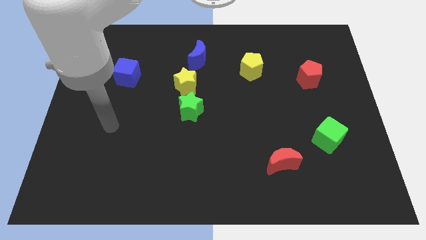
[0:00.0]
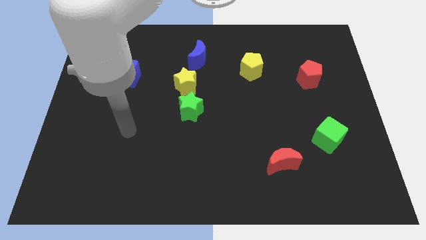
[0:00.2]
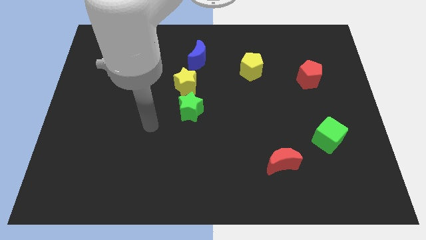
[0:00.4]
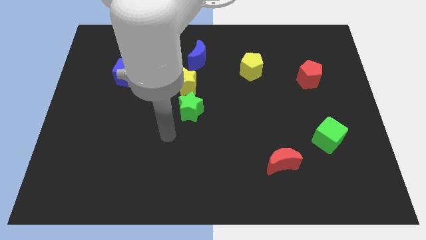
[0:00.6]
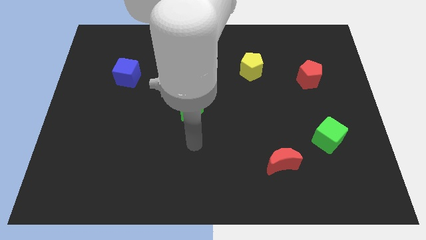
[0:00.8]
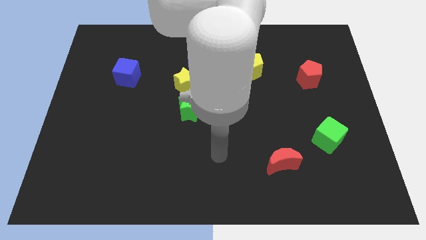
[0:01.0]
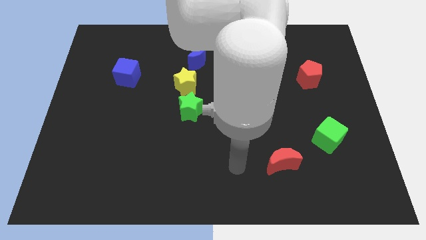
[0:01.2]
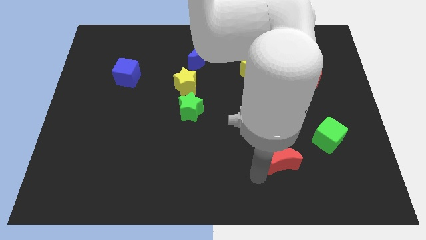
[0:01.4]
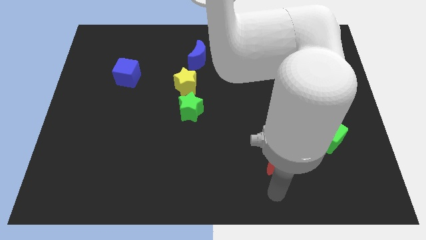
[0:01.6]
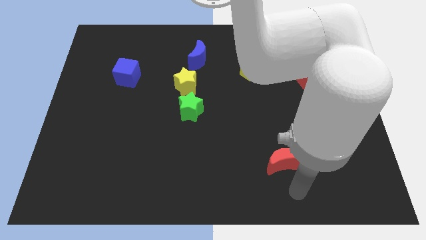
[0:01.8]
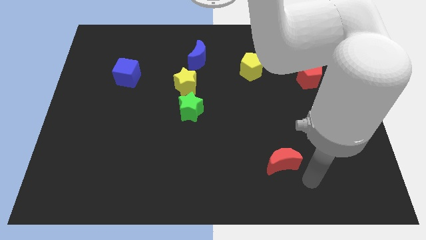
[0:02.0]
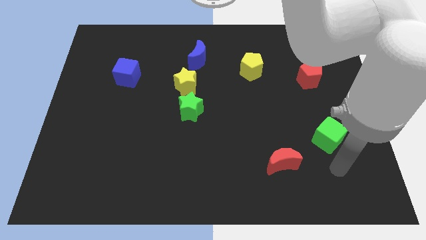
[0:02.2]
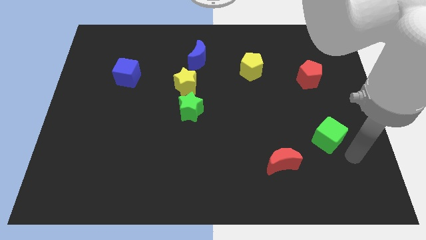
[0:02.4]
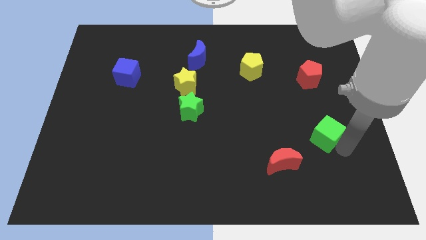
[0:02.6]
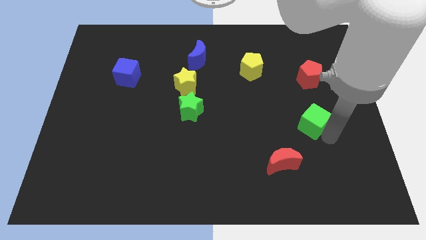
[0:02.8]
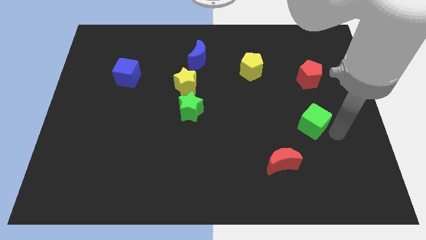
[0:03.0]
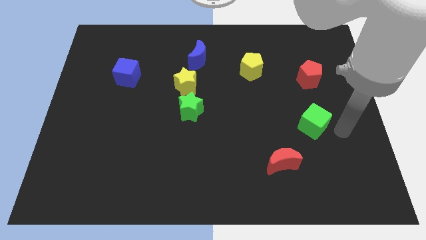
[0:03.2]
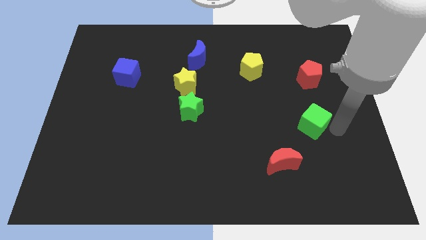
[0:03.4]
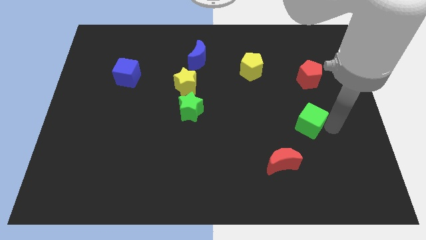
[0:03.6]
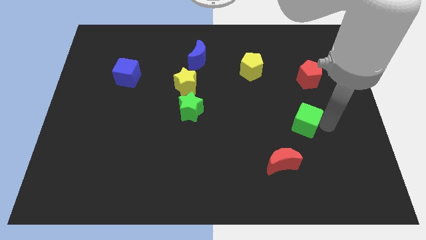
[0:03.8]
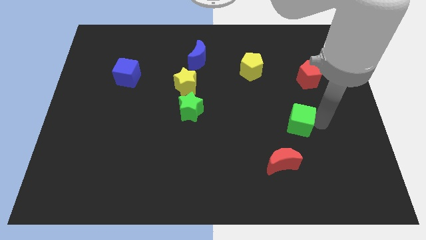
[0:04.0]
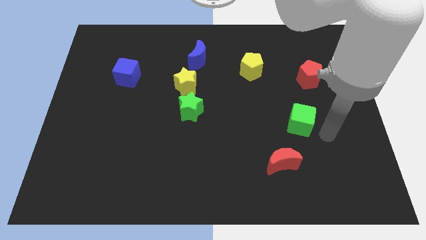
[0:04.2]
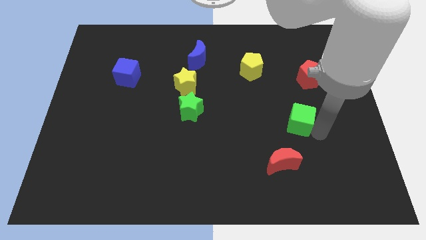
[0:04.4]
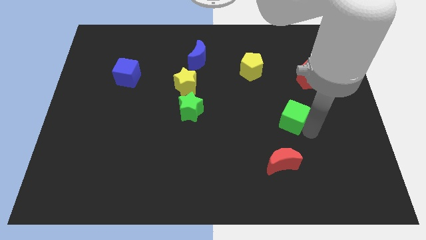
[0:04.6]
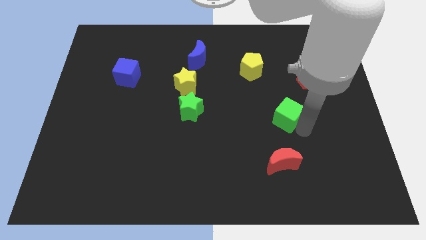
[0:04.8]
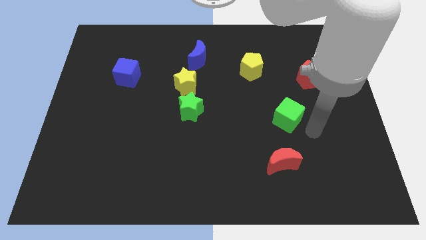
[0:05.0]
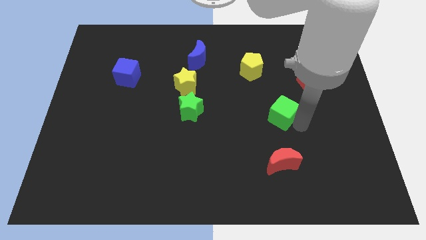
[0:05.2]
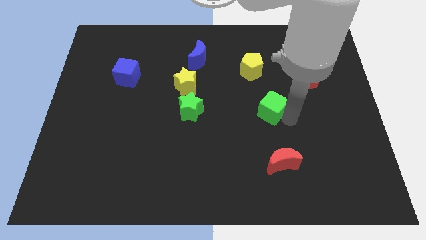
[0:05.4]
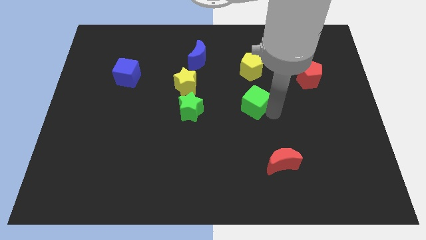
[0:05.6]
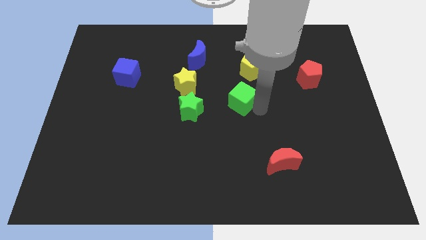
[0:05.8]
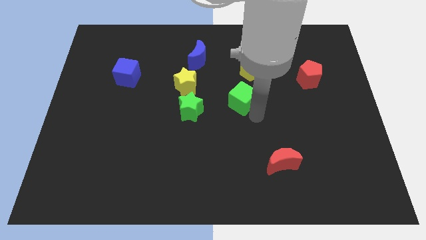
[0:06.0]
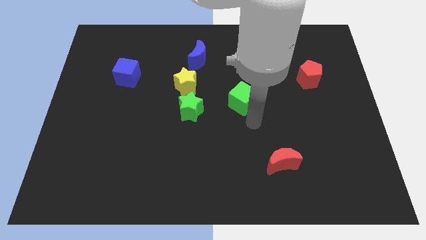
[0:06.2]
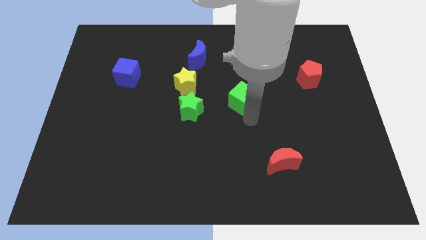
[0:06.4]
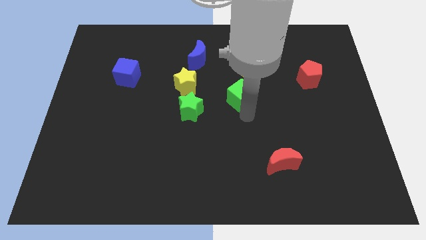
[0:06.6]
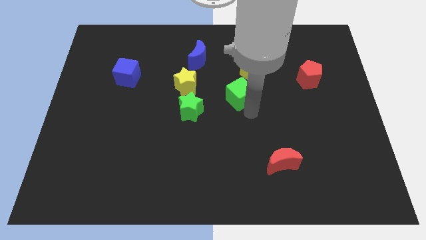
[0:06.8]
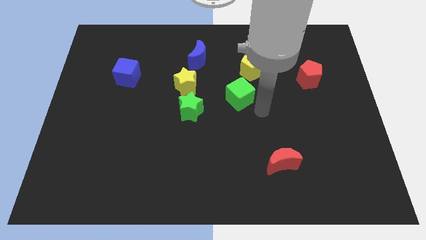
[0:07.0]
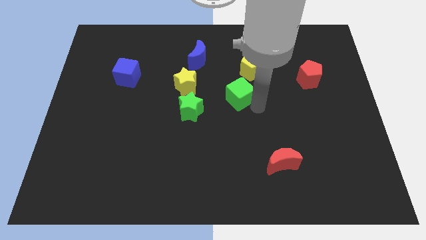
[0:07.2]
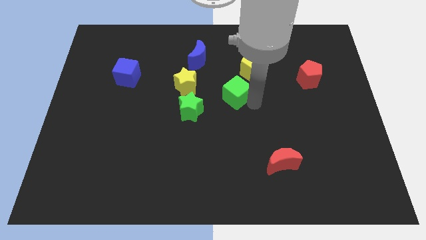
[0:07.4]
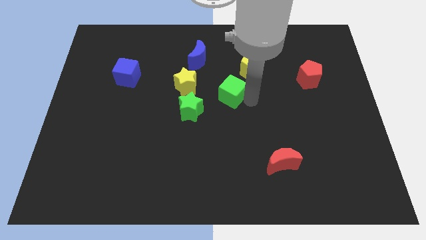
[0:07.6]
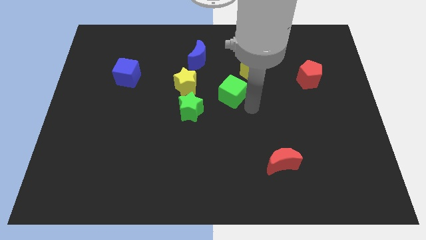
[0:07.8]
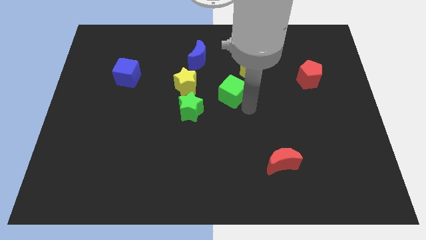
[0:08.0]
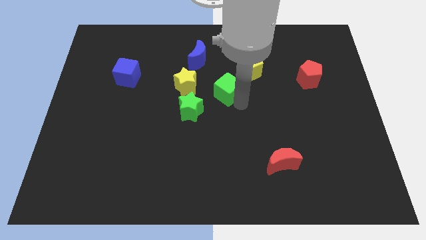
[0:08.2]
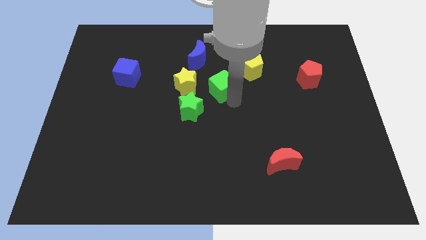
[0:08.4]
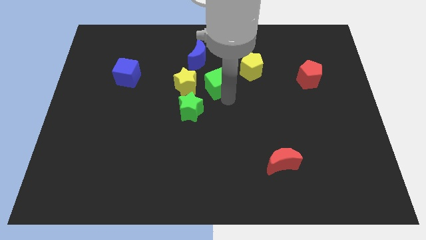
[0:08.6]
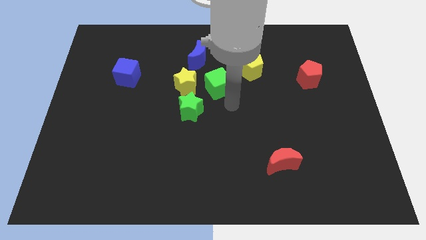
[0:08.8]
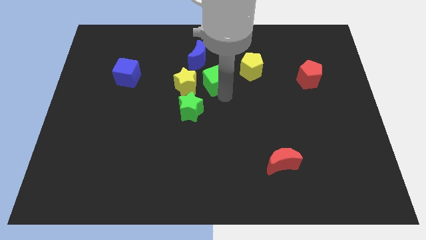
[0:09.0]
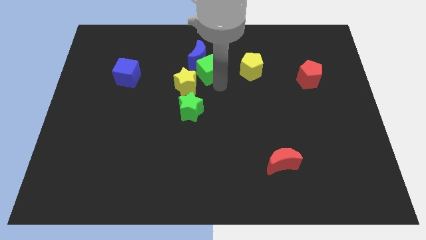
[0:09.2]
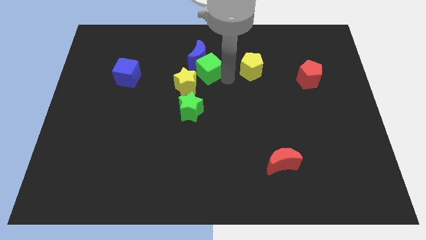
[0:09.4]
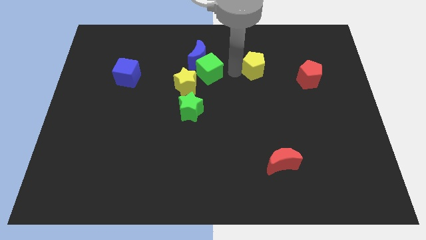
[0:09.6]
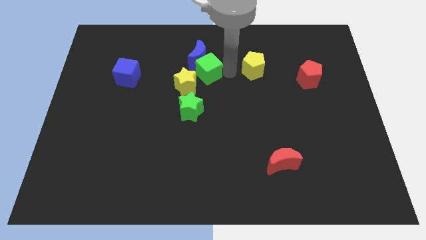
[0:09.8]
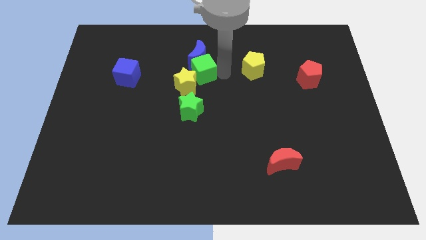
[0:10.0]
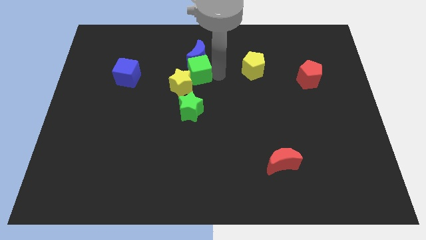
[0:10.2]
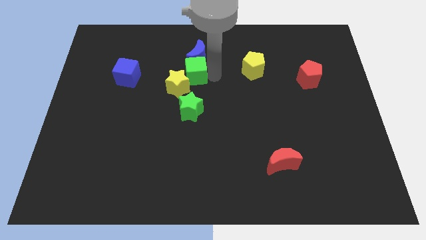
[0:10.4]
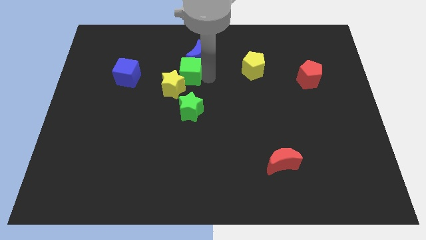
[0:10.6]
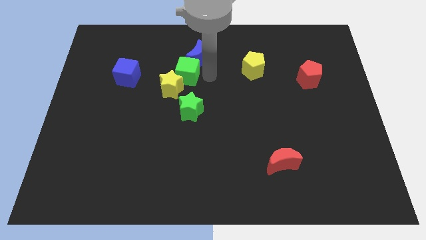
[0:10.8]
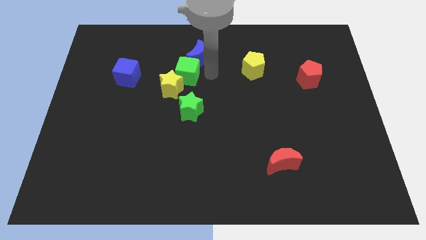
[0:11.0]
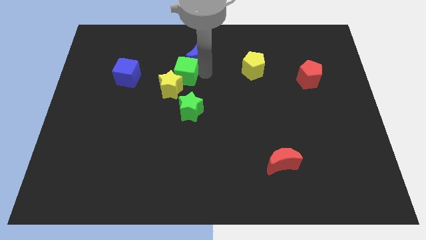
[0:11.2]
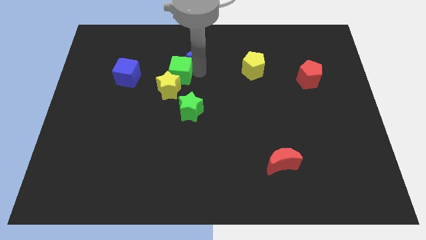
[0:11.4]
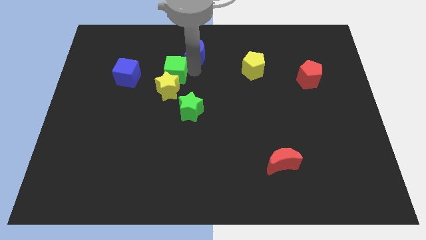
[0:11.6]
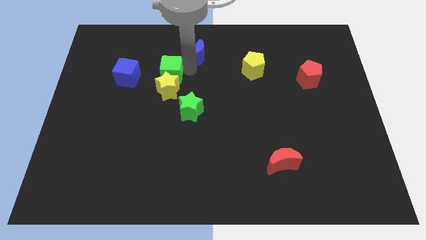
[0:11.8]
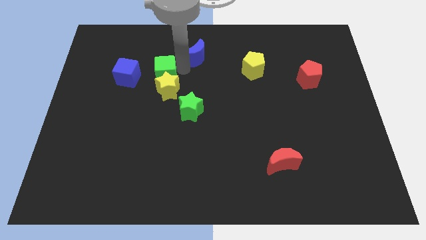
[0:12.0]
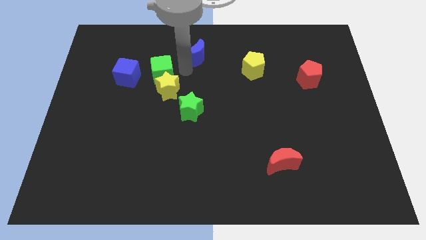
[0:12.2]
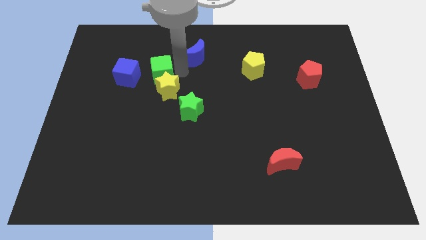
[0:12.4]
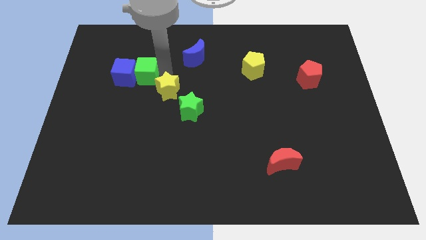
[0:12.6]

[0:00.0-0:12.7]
push the green cube close to the blue cube

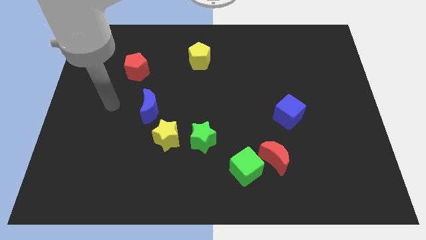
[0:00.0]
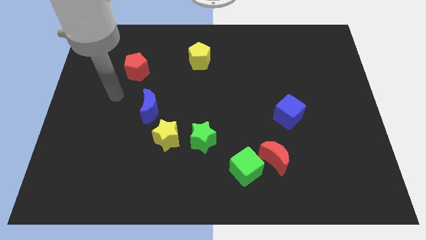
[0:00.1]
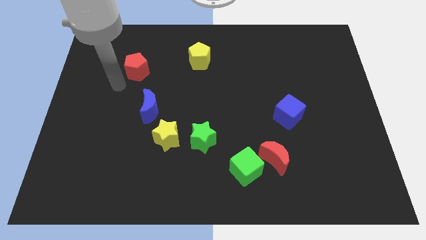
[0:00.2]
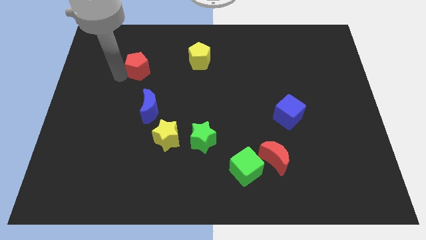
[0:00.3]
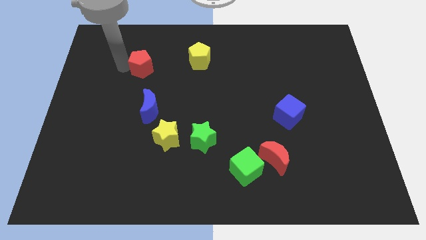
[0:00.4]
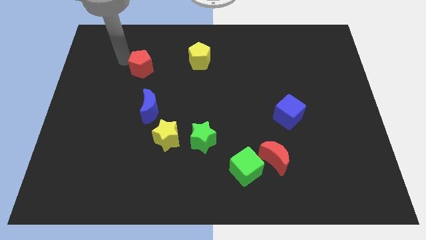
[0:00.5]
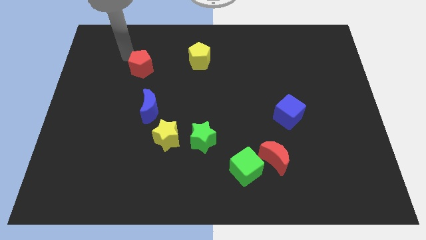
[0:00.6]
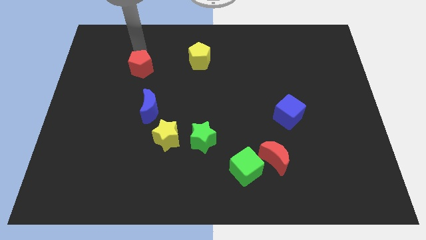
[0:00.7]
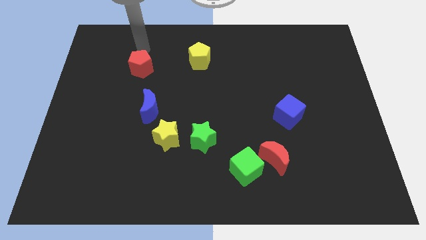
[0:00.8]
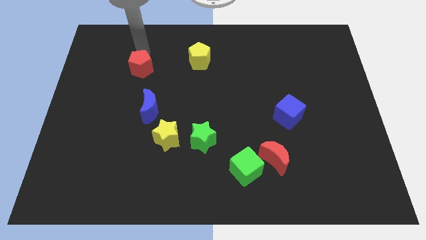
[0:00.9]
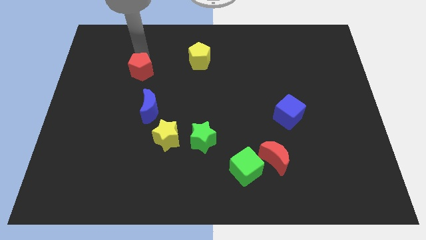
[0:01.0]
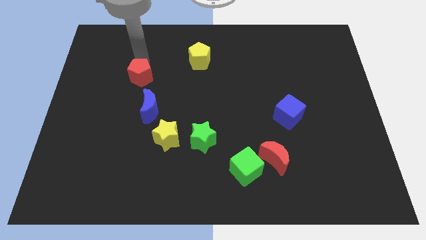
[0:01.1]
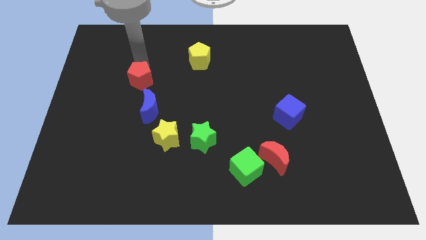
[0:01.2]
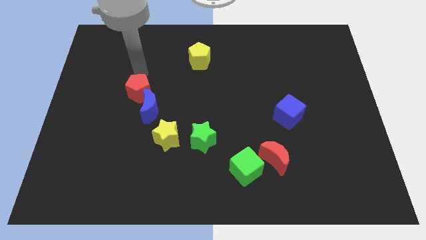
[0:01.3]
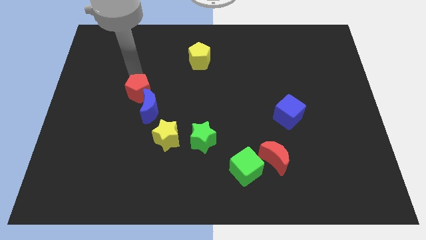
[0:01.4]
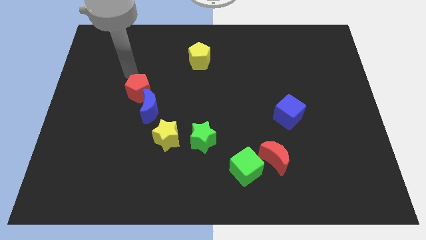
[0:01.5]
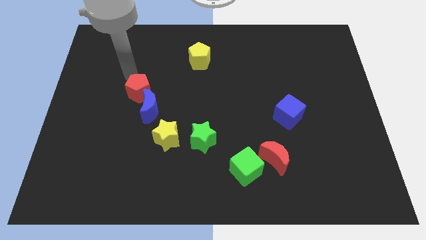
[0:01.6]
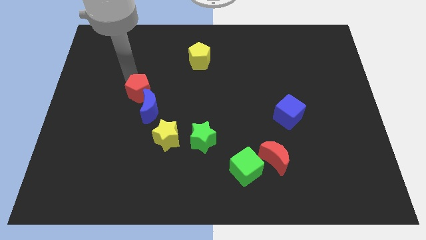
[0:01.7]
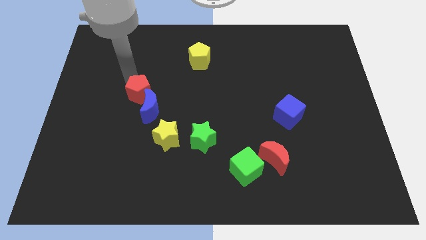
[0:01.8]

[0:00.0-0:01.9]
put the red pentagon to the blue moon
